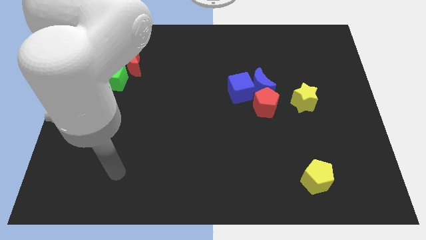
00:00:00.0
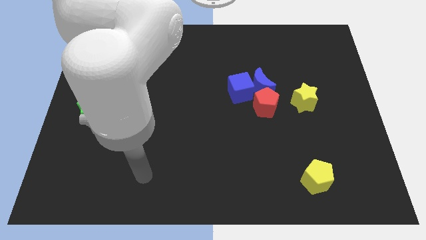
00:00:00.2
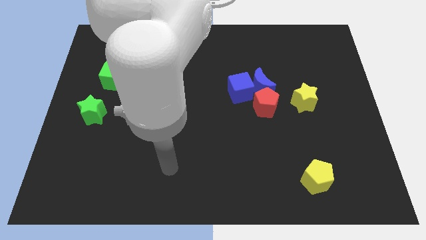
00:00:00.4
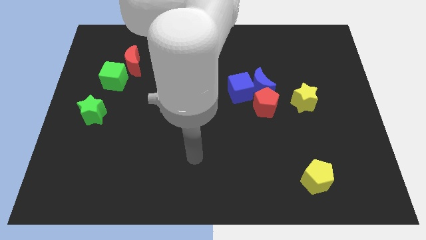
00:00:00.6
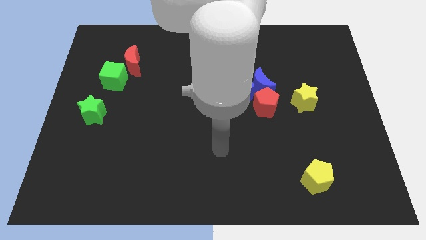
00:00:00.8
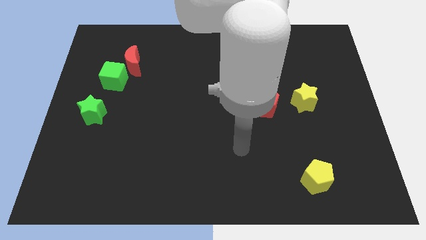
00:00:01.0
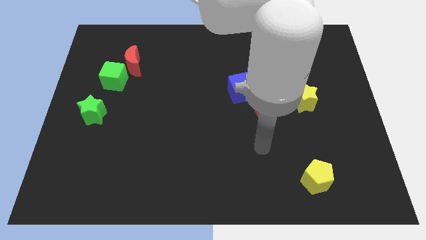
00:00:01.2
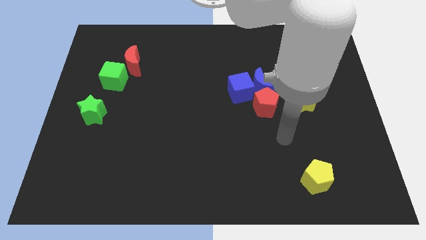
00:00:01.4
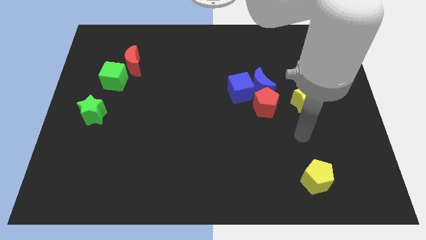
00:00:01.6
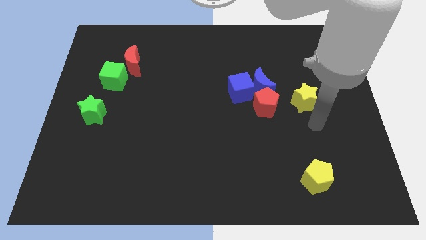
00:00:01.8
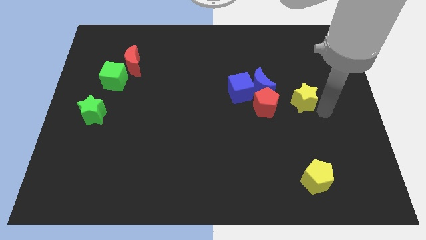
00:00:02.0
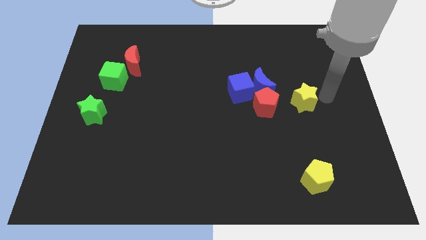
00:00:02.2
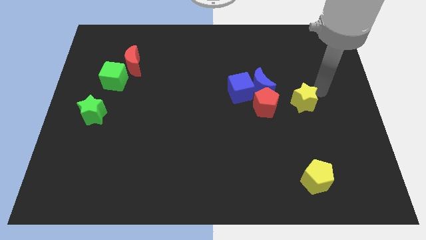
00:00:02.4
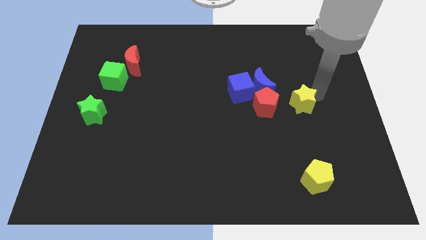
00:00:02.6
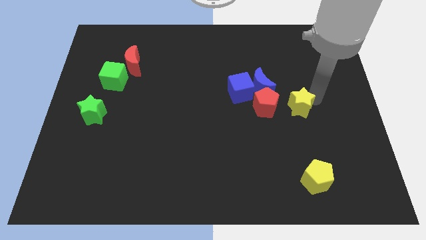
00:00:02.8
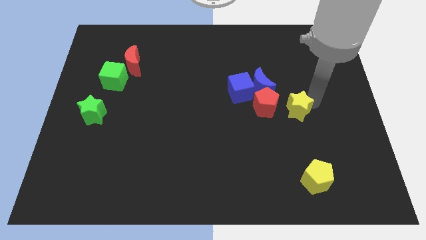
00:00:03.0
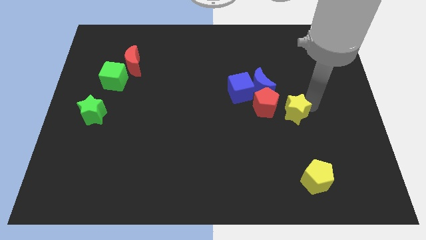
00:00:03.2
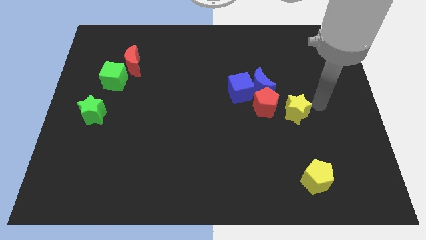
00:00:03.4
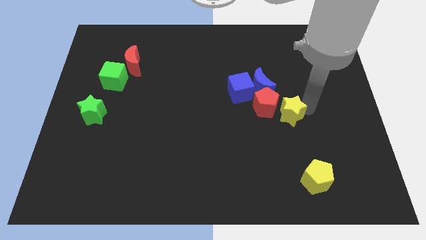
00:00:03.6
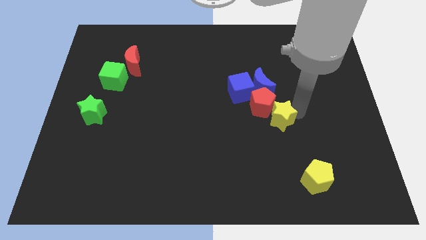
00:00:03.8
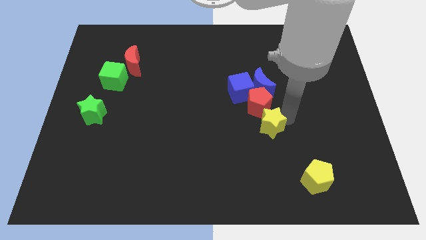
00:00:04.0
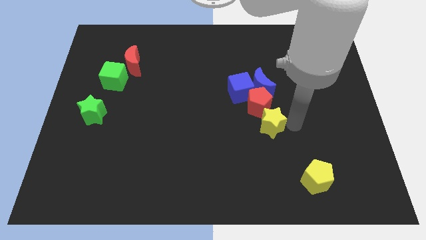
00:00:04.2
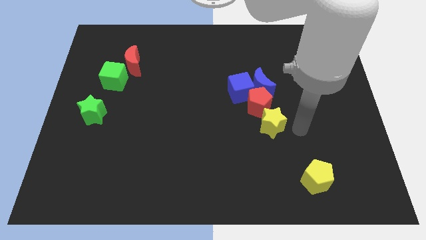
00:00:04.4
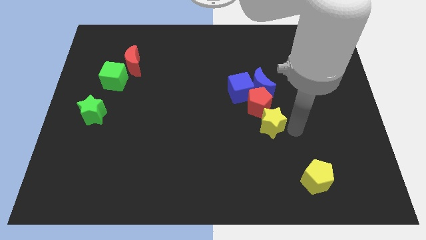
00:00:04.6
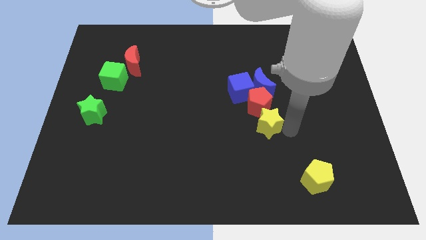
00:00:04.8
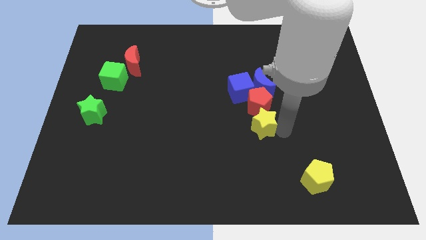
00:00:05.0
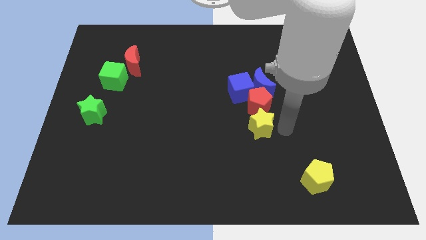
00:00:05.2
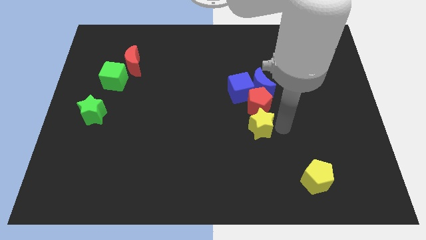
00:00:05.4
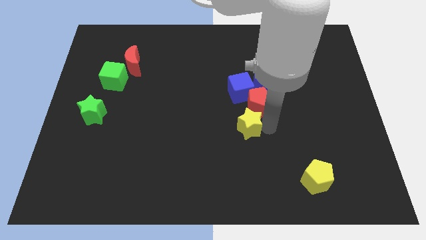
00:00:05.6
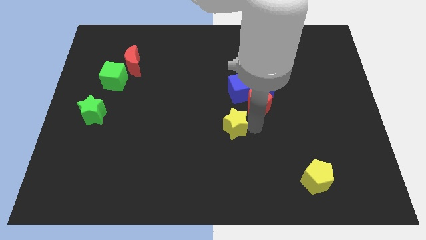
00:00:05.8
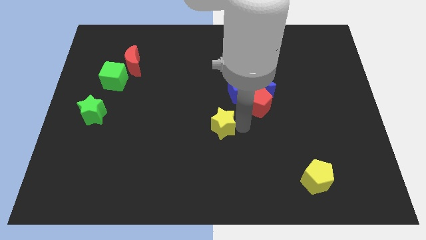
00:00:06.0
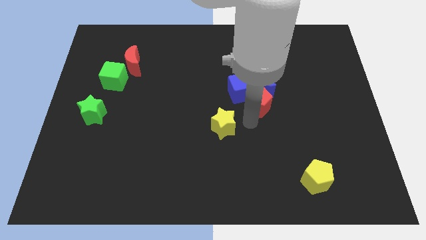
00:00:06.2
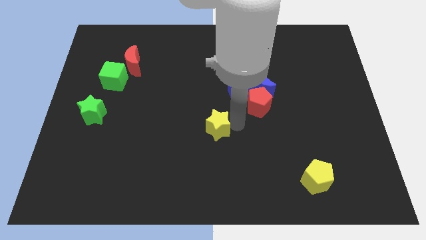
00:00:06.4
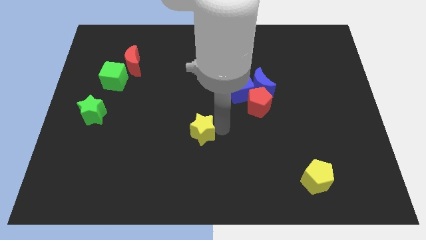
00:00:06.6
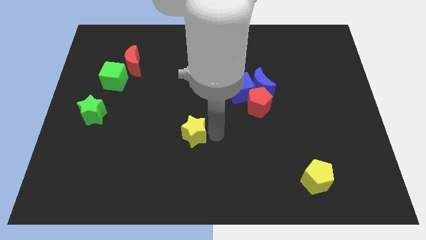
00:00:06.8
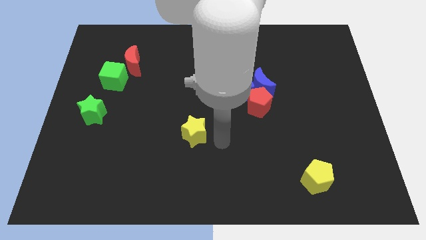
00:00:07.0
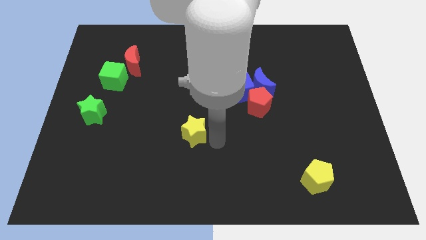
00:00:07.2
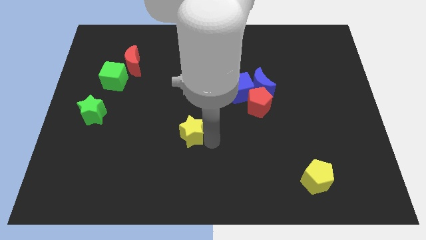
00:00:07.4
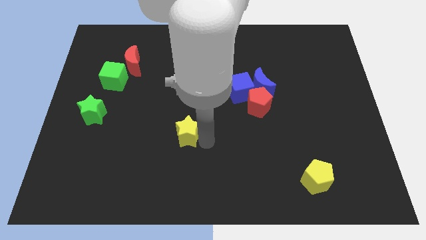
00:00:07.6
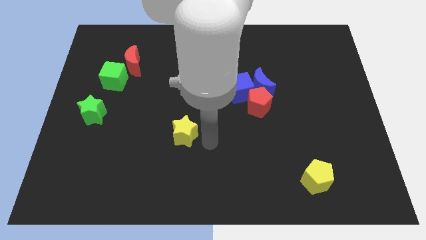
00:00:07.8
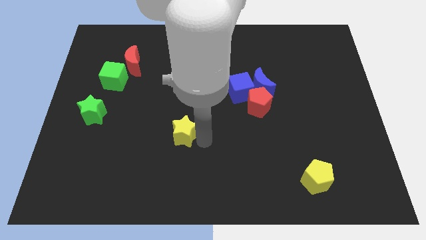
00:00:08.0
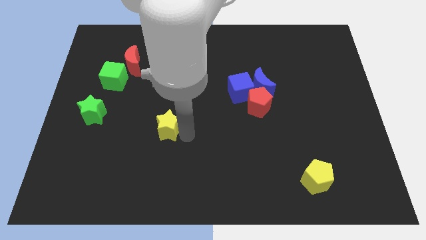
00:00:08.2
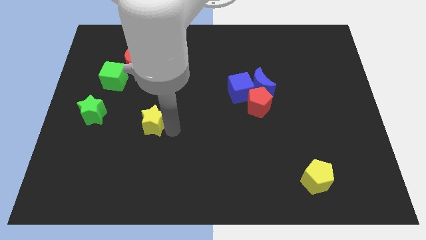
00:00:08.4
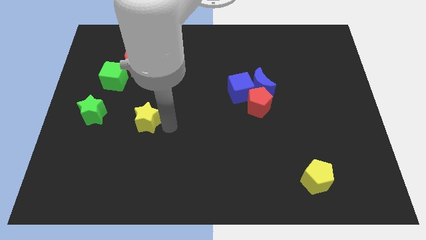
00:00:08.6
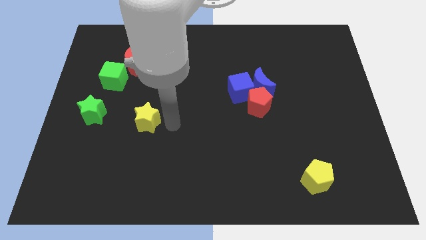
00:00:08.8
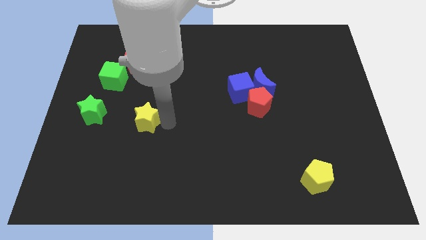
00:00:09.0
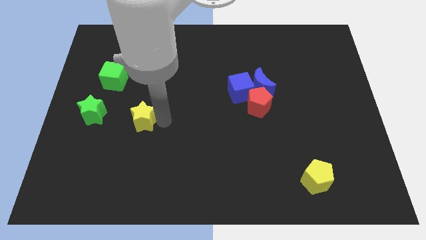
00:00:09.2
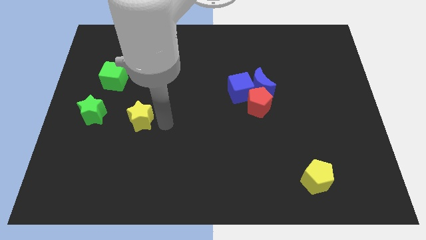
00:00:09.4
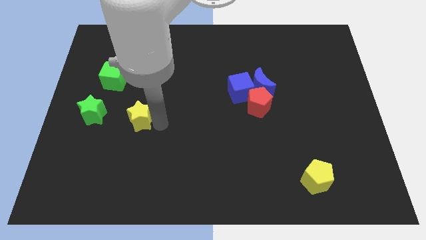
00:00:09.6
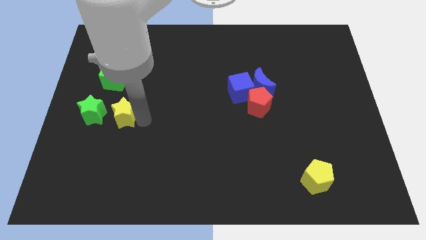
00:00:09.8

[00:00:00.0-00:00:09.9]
slide the yellow star below the green cube

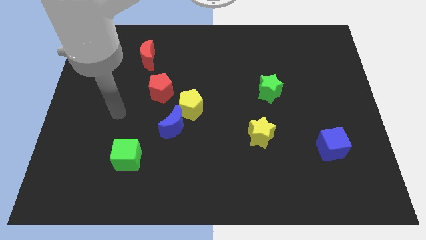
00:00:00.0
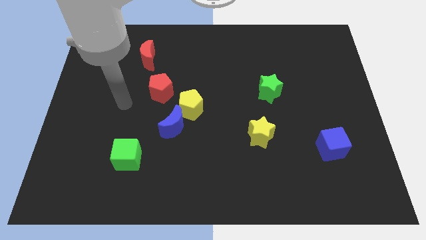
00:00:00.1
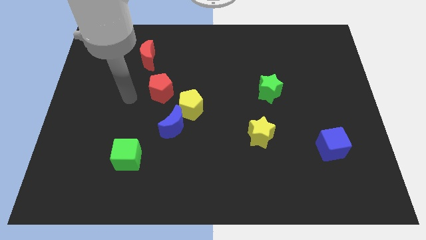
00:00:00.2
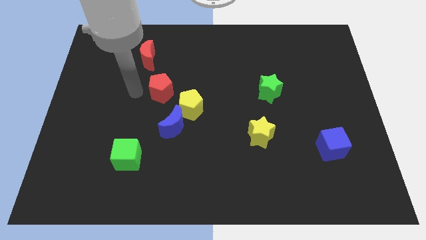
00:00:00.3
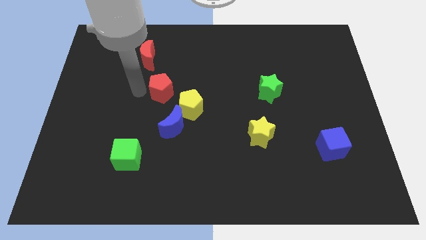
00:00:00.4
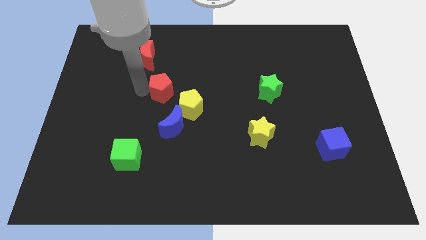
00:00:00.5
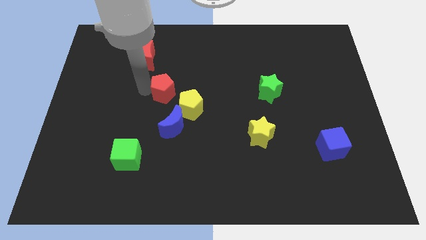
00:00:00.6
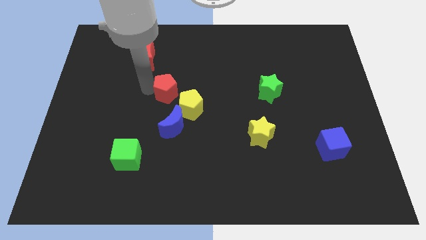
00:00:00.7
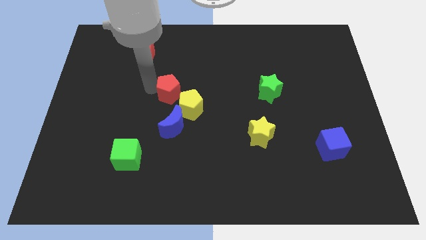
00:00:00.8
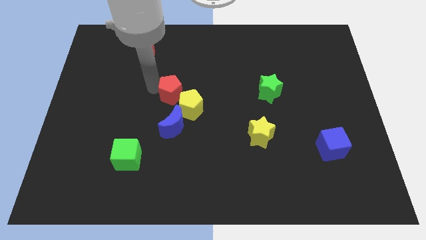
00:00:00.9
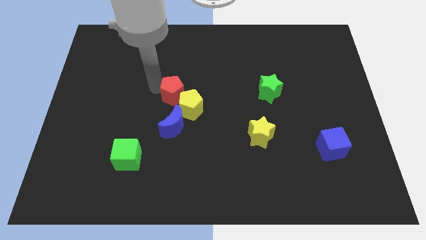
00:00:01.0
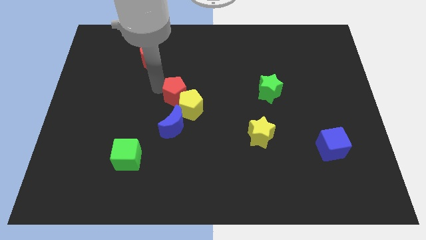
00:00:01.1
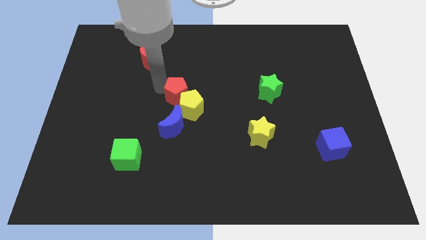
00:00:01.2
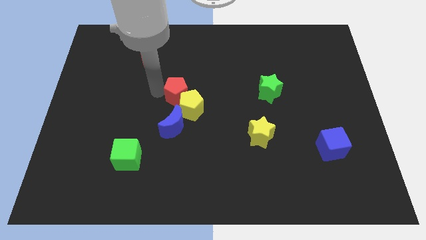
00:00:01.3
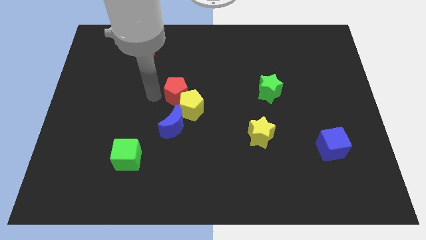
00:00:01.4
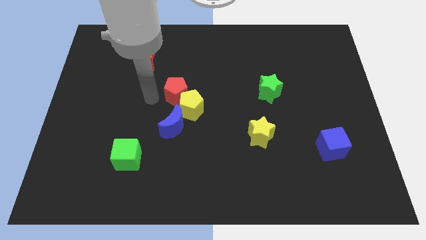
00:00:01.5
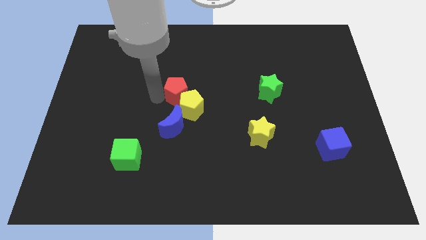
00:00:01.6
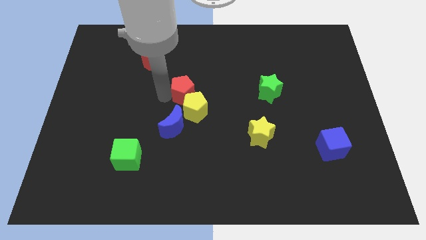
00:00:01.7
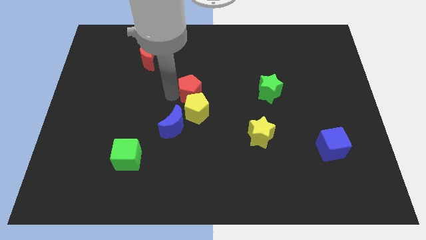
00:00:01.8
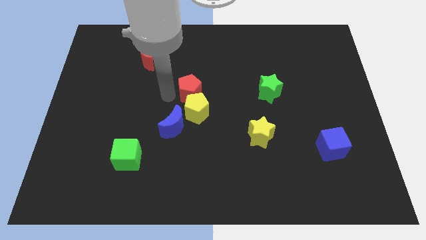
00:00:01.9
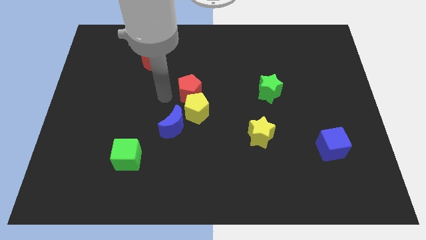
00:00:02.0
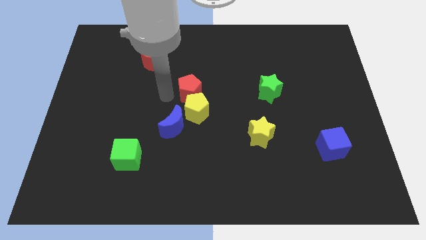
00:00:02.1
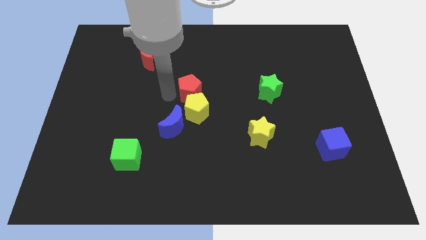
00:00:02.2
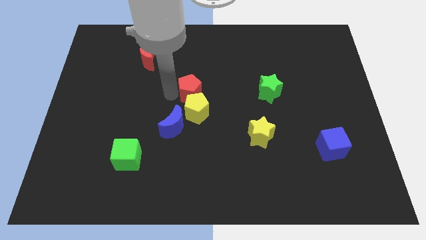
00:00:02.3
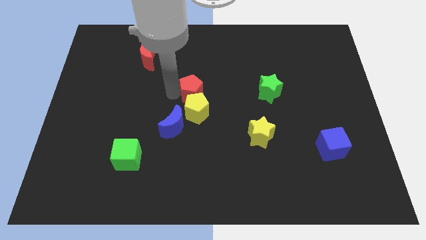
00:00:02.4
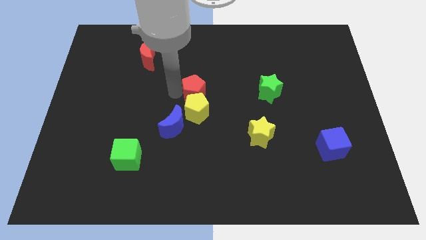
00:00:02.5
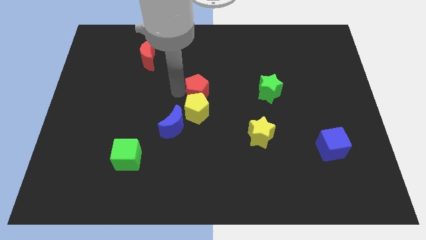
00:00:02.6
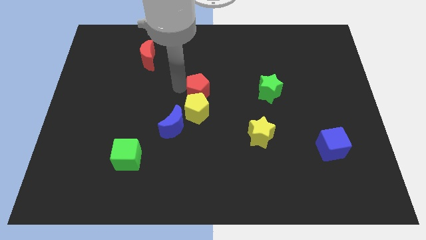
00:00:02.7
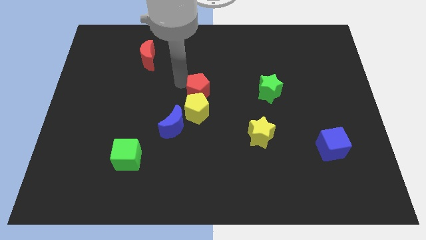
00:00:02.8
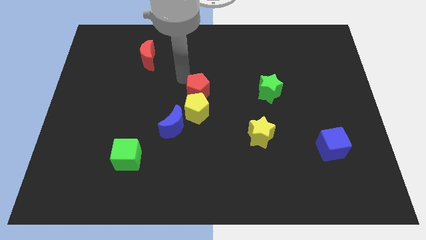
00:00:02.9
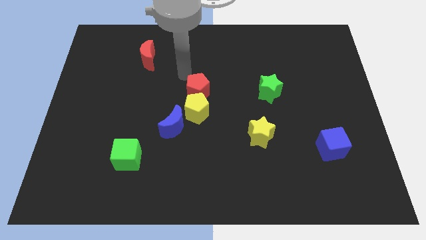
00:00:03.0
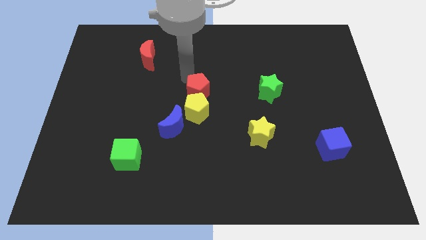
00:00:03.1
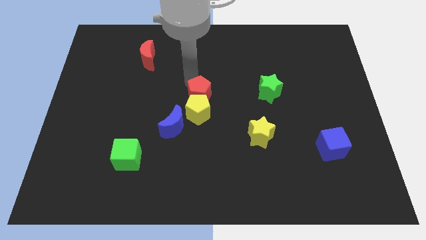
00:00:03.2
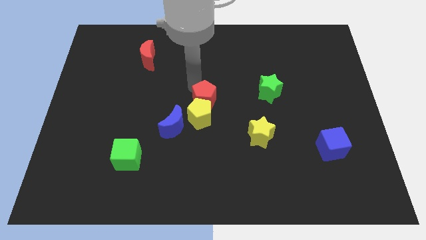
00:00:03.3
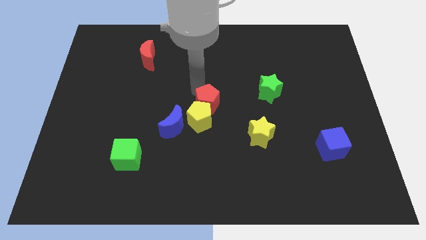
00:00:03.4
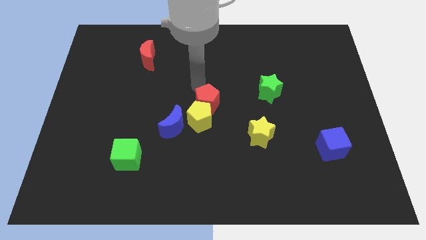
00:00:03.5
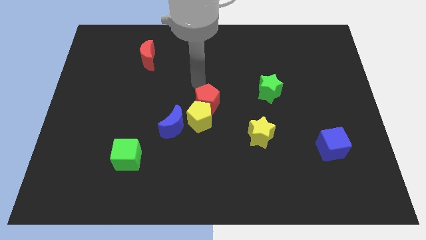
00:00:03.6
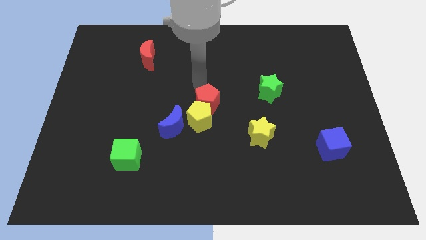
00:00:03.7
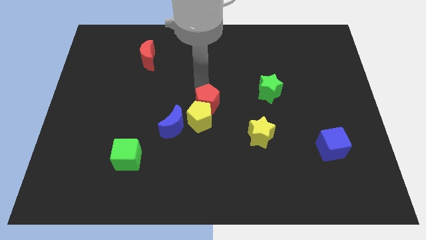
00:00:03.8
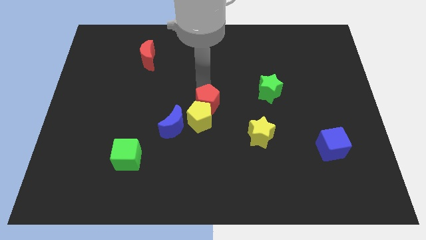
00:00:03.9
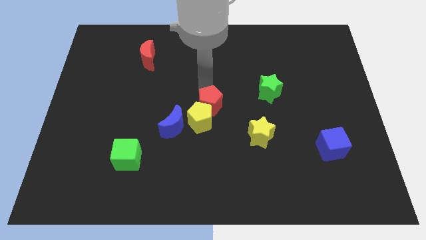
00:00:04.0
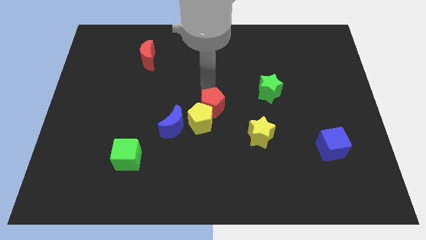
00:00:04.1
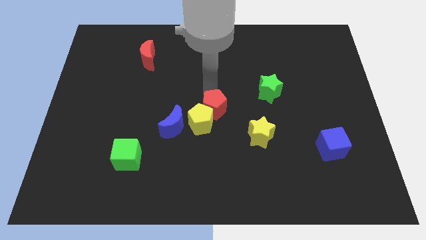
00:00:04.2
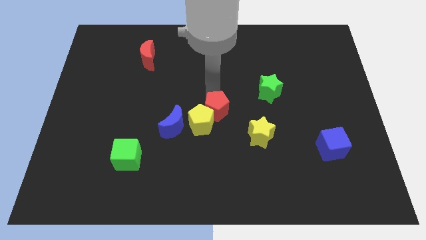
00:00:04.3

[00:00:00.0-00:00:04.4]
slide the red pentagon to the right of the blue moon
